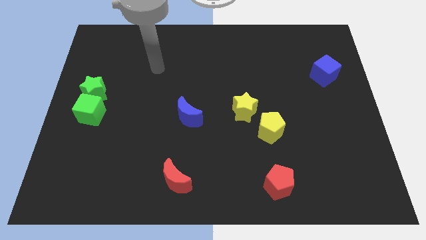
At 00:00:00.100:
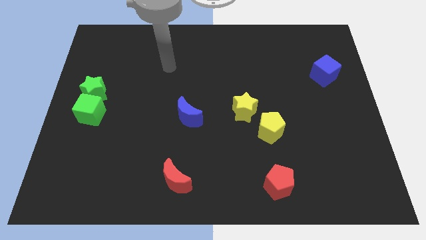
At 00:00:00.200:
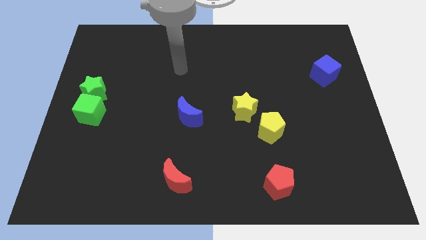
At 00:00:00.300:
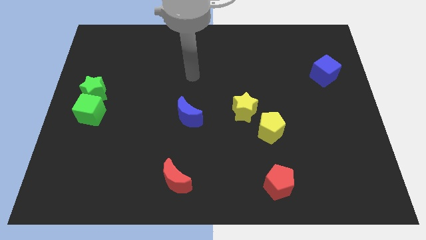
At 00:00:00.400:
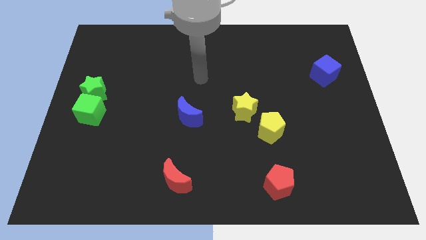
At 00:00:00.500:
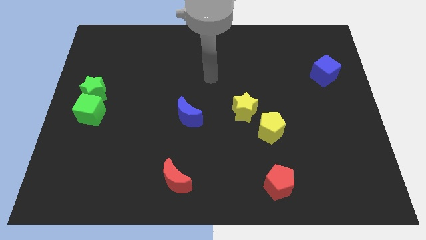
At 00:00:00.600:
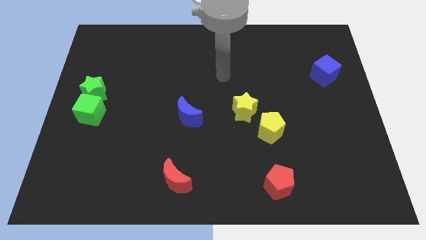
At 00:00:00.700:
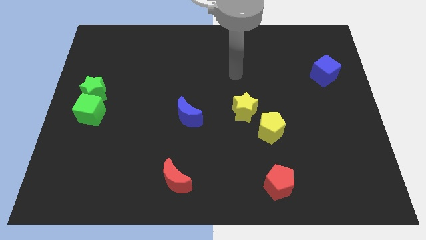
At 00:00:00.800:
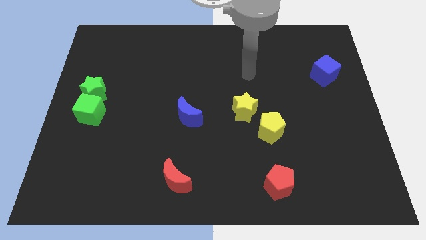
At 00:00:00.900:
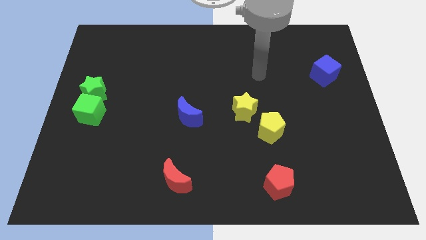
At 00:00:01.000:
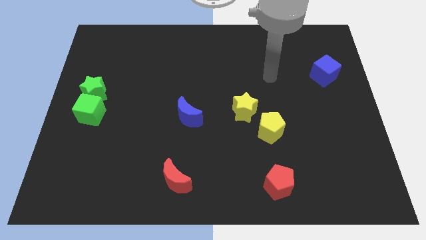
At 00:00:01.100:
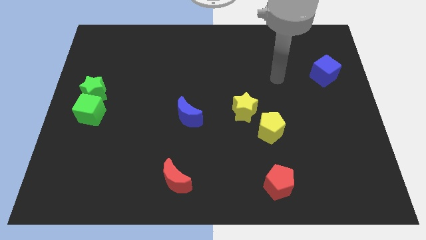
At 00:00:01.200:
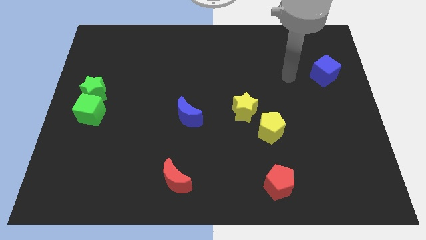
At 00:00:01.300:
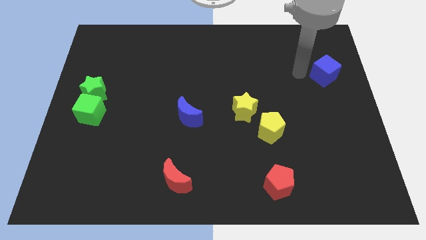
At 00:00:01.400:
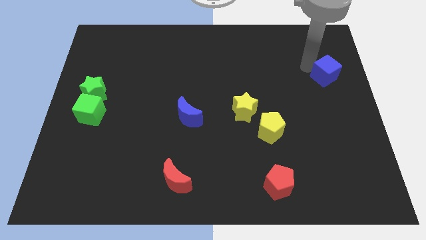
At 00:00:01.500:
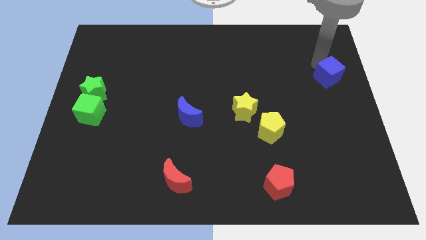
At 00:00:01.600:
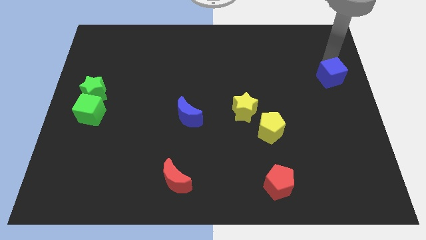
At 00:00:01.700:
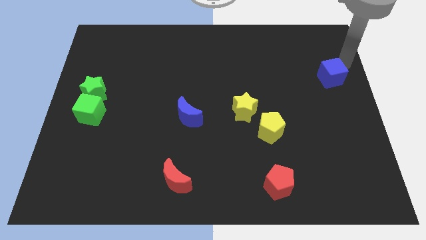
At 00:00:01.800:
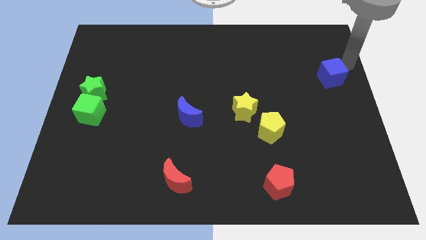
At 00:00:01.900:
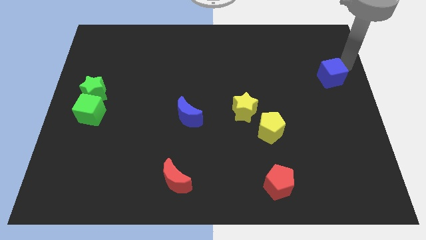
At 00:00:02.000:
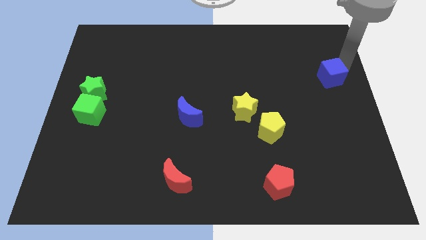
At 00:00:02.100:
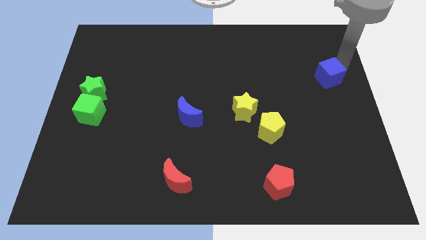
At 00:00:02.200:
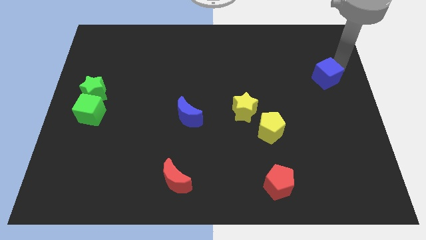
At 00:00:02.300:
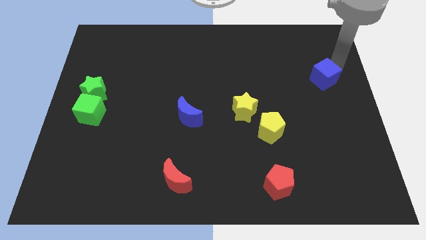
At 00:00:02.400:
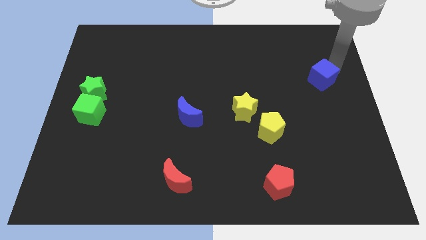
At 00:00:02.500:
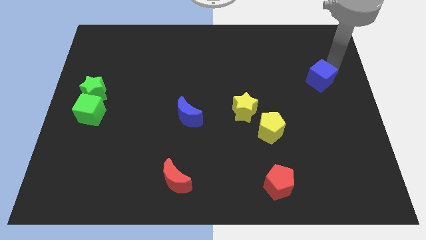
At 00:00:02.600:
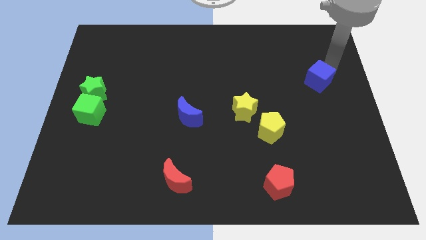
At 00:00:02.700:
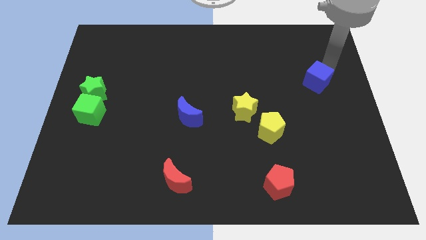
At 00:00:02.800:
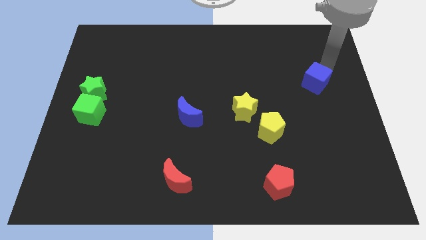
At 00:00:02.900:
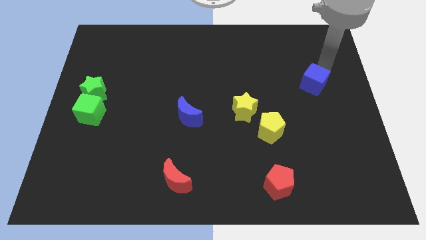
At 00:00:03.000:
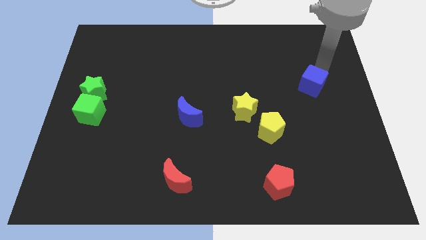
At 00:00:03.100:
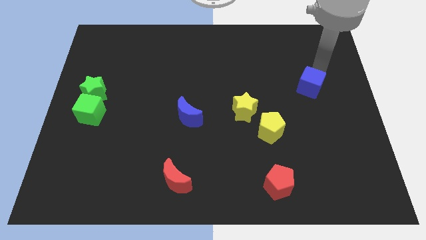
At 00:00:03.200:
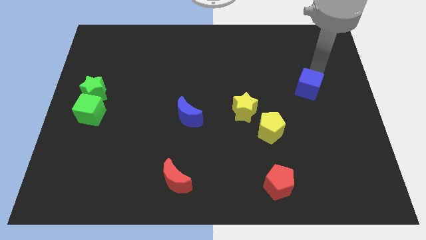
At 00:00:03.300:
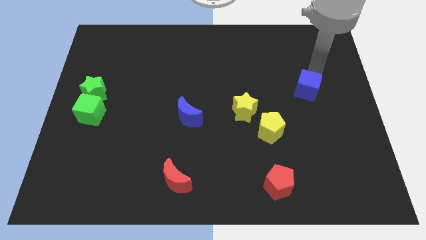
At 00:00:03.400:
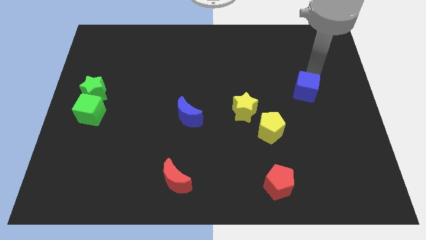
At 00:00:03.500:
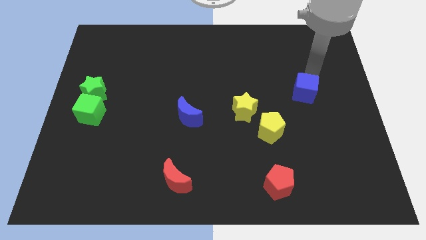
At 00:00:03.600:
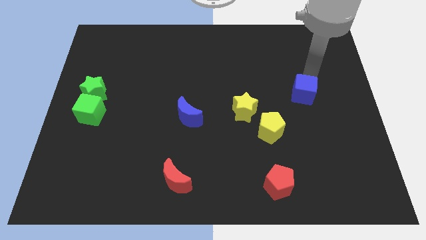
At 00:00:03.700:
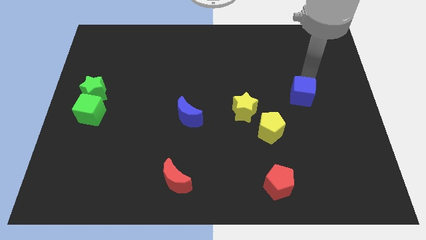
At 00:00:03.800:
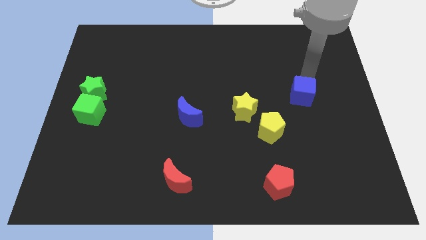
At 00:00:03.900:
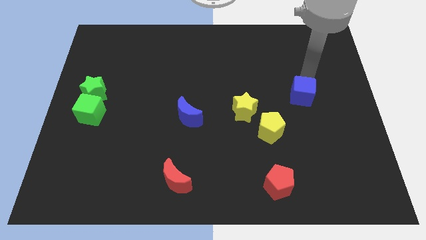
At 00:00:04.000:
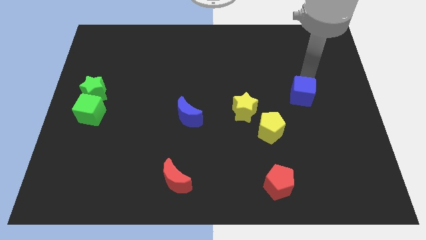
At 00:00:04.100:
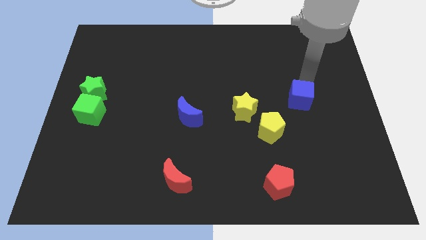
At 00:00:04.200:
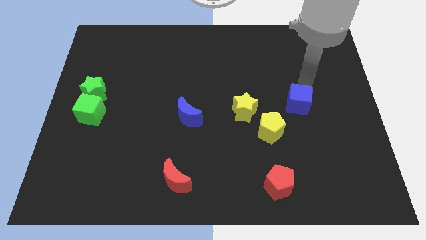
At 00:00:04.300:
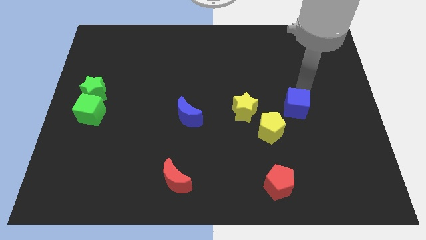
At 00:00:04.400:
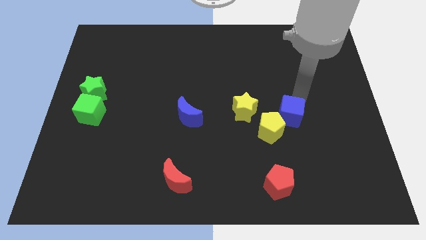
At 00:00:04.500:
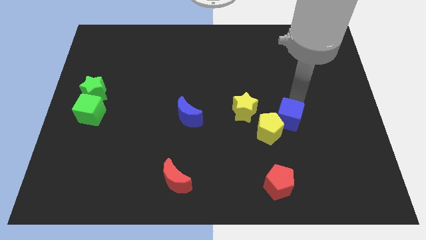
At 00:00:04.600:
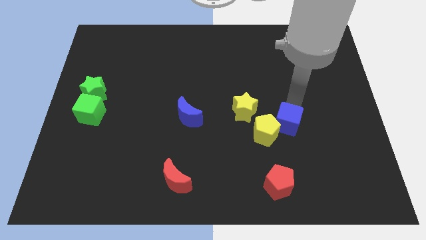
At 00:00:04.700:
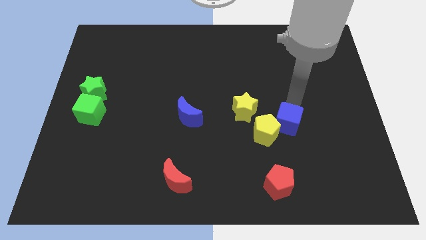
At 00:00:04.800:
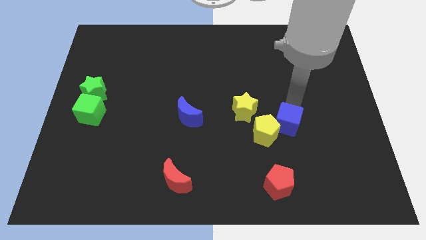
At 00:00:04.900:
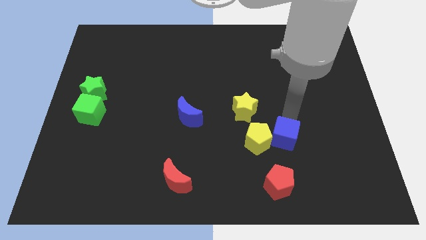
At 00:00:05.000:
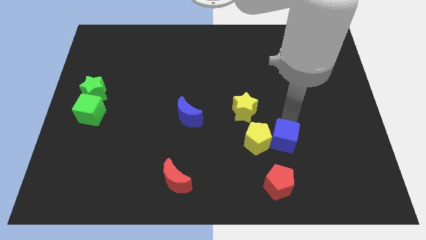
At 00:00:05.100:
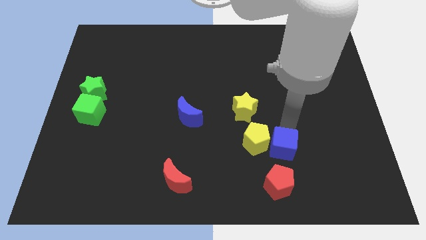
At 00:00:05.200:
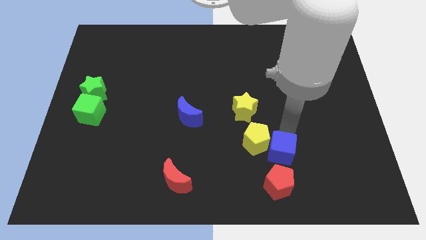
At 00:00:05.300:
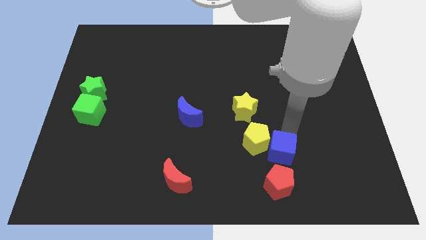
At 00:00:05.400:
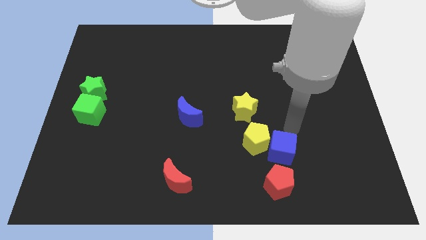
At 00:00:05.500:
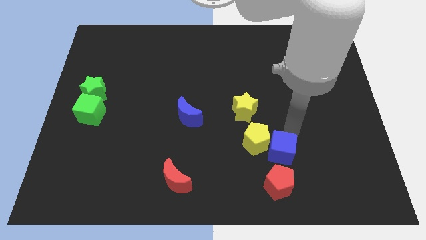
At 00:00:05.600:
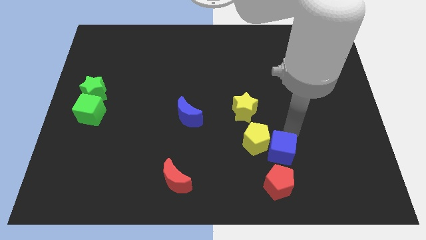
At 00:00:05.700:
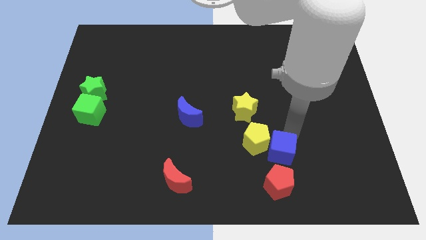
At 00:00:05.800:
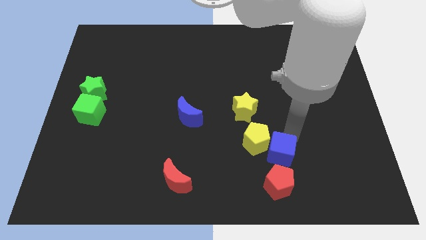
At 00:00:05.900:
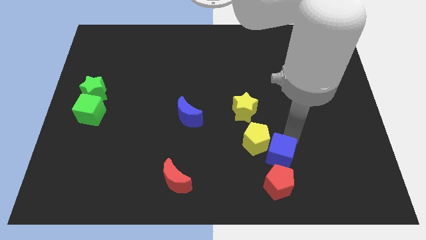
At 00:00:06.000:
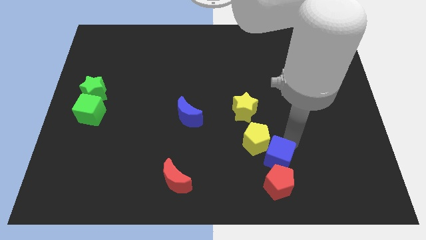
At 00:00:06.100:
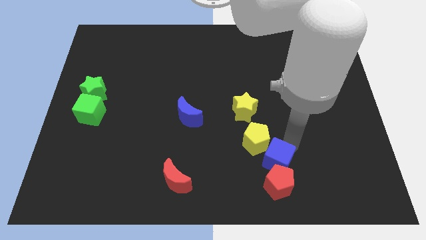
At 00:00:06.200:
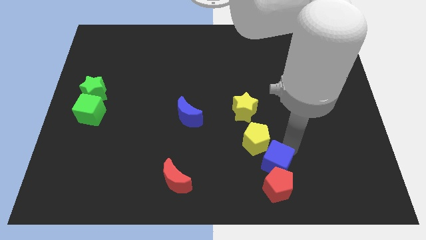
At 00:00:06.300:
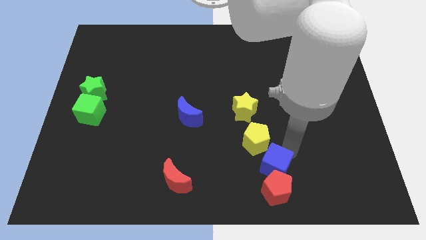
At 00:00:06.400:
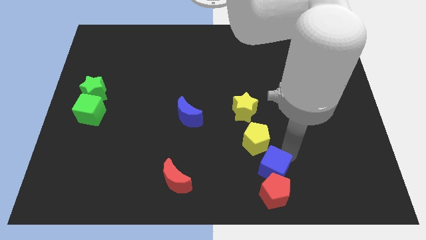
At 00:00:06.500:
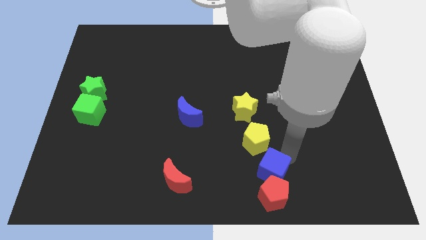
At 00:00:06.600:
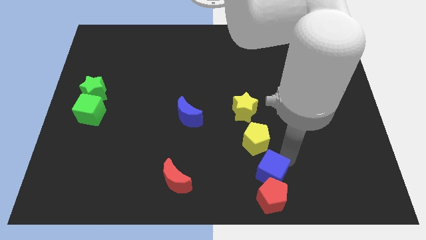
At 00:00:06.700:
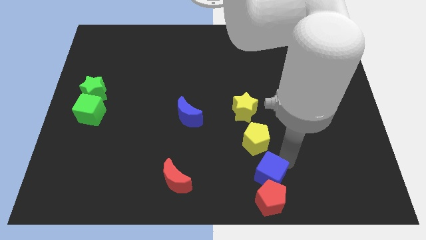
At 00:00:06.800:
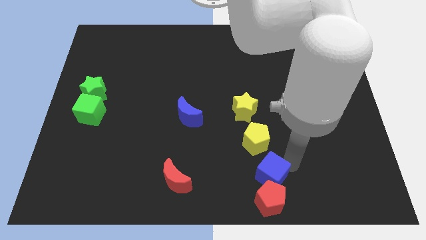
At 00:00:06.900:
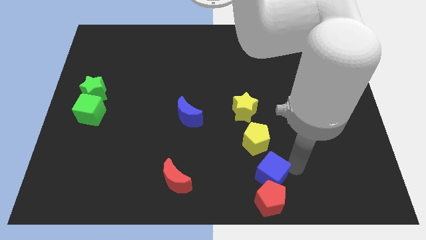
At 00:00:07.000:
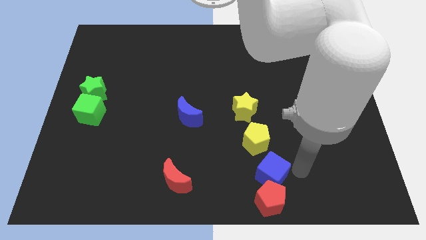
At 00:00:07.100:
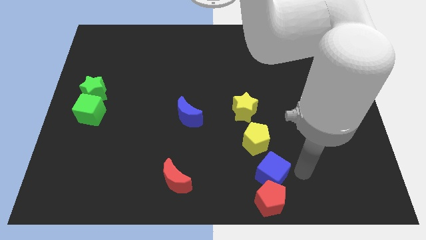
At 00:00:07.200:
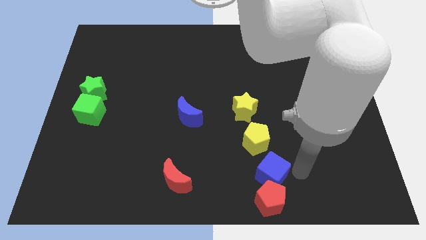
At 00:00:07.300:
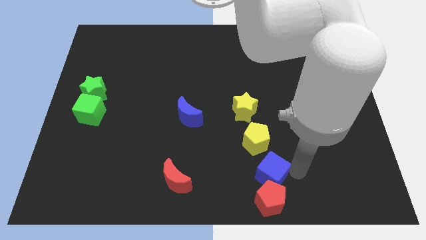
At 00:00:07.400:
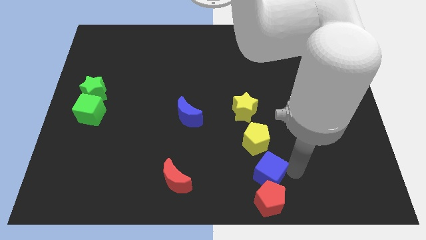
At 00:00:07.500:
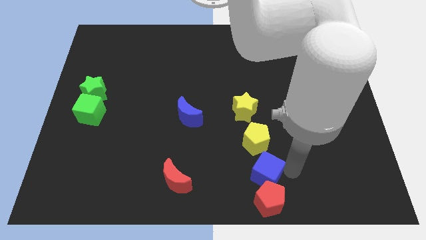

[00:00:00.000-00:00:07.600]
push the blue cube to the bottom
